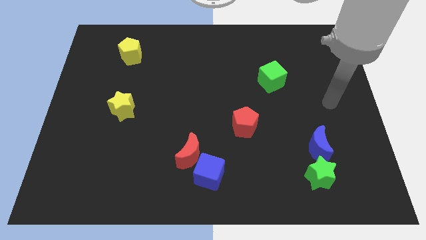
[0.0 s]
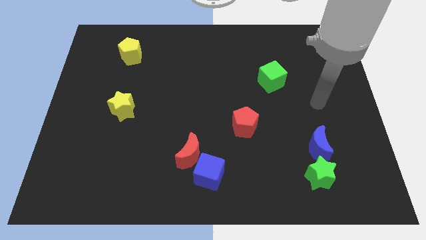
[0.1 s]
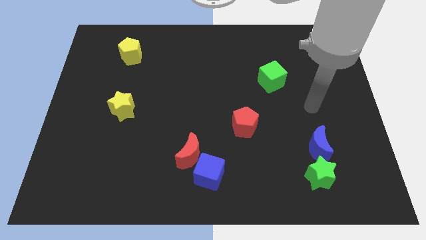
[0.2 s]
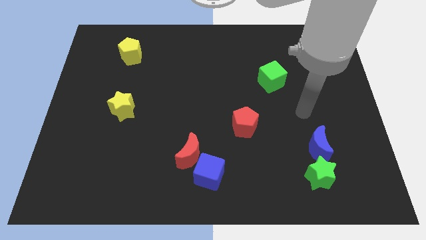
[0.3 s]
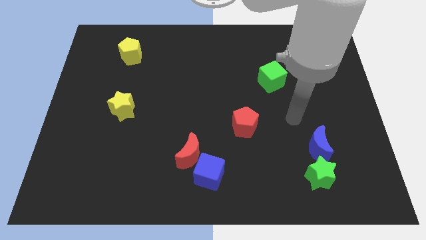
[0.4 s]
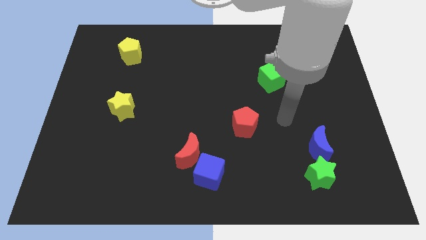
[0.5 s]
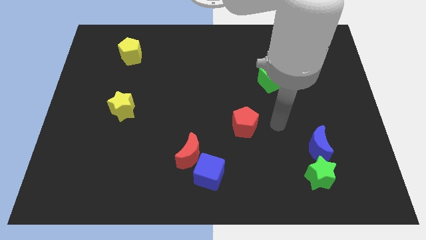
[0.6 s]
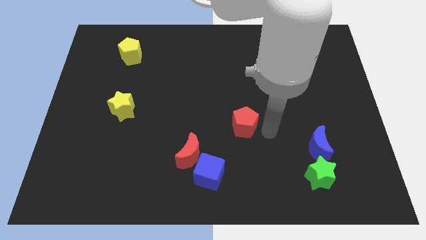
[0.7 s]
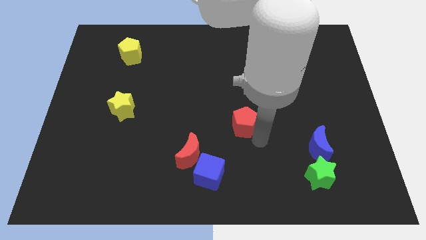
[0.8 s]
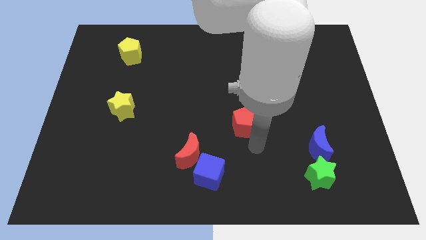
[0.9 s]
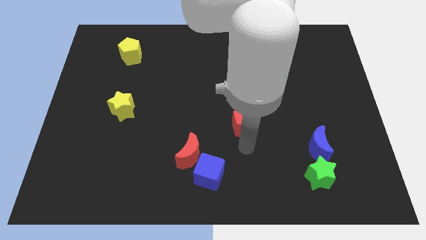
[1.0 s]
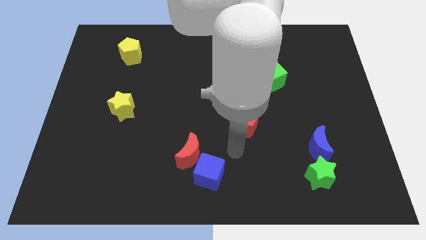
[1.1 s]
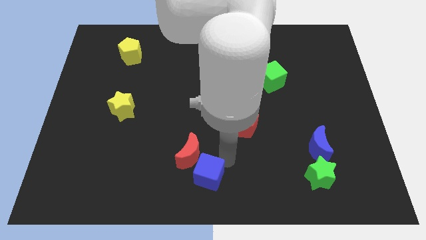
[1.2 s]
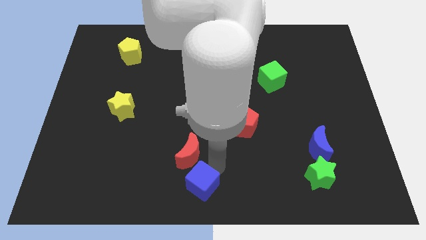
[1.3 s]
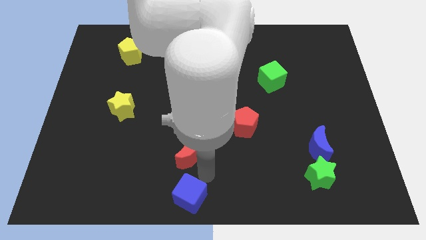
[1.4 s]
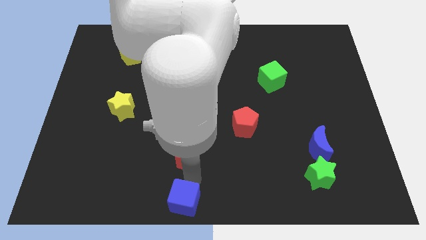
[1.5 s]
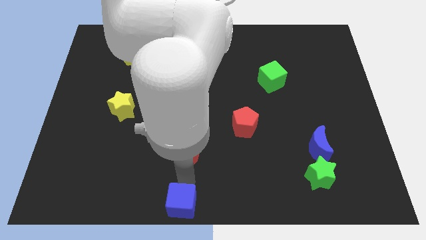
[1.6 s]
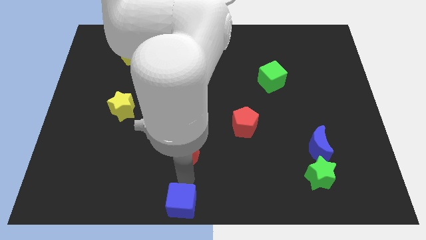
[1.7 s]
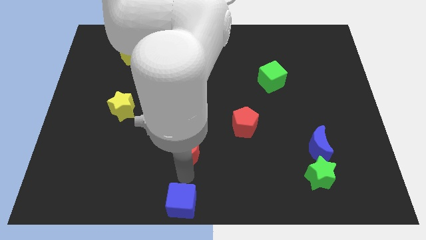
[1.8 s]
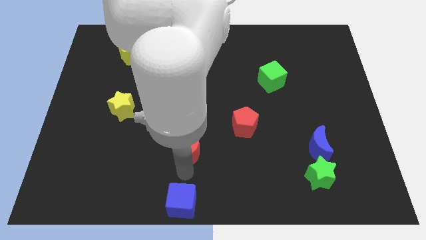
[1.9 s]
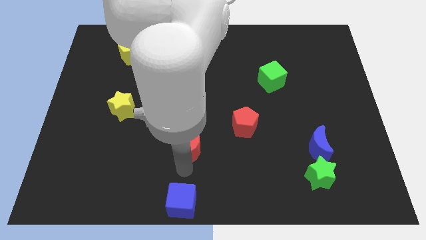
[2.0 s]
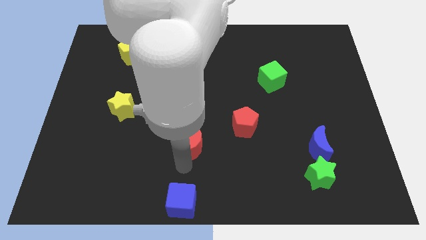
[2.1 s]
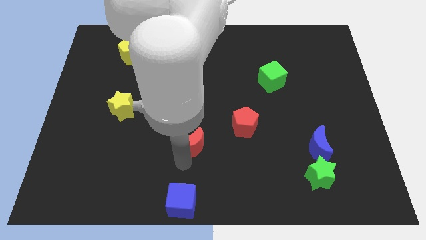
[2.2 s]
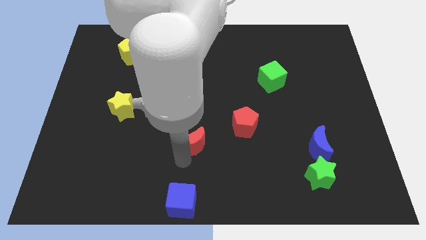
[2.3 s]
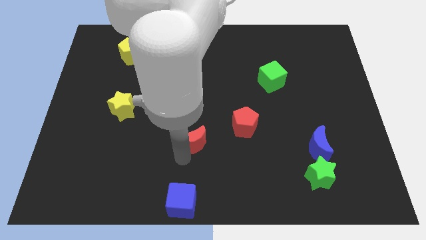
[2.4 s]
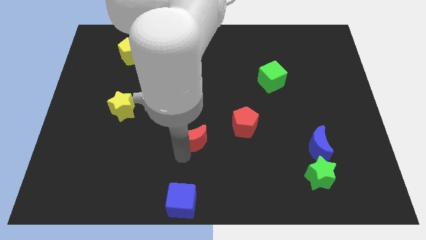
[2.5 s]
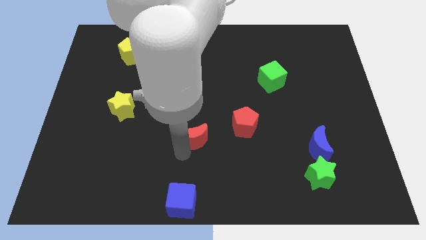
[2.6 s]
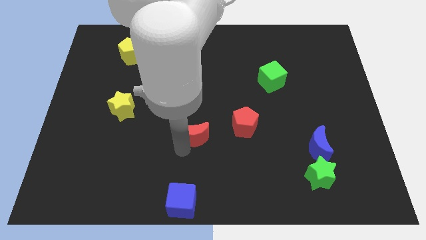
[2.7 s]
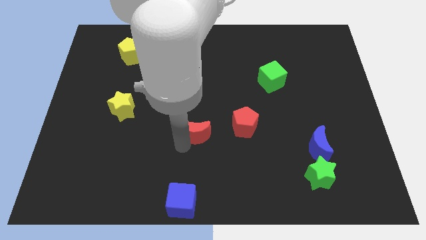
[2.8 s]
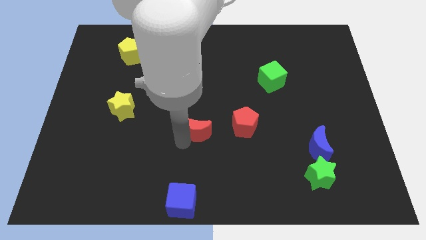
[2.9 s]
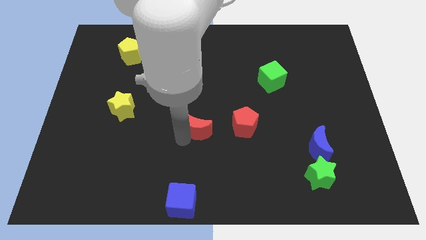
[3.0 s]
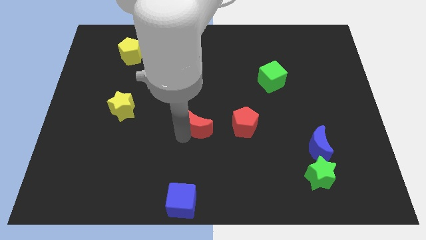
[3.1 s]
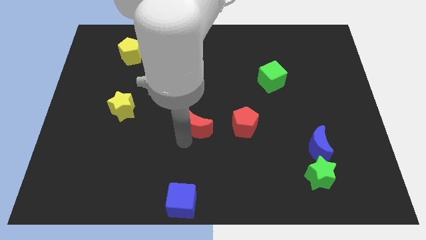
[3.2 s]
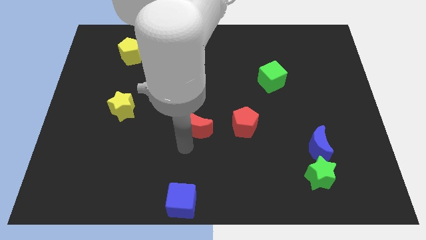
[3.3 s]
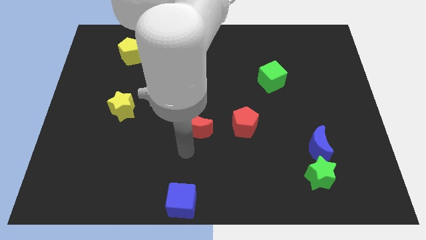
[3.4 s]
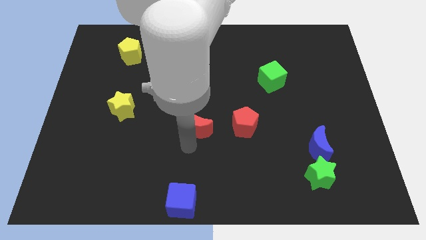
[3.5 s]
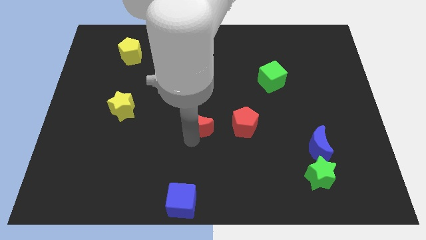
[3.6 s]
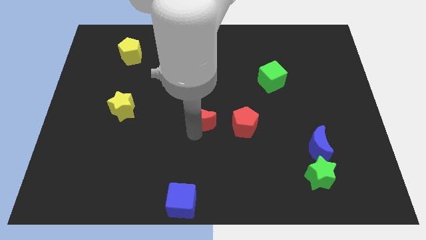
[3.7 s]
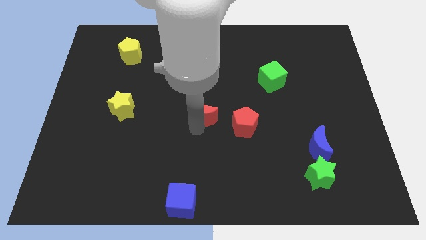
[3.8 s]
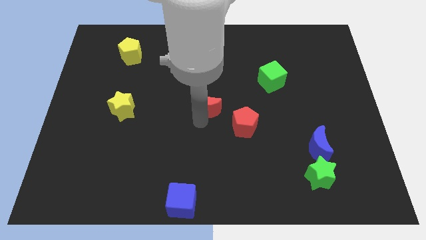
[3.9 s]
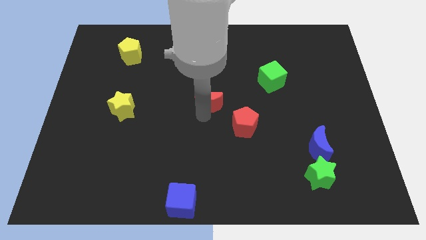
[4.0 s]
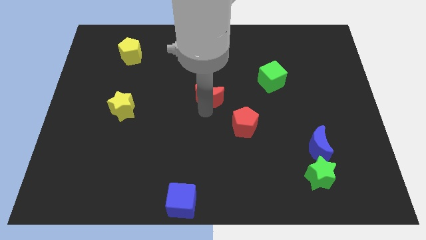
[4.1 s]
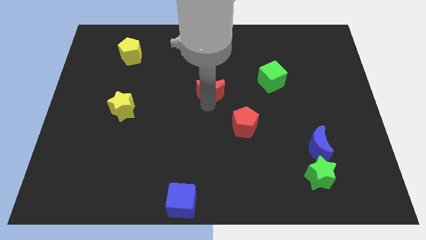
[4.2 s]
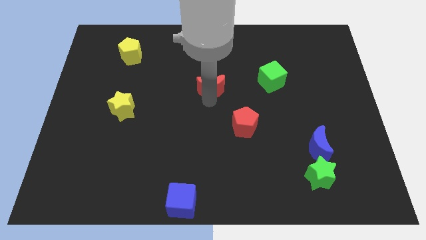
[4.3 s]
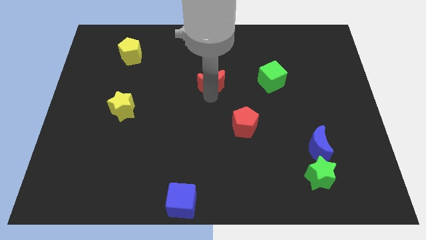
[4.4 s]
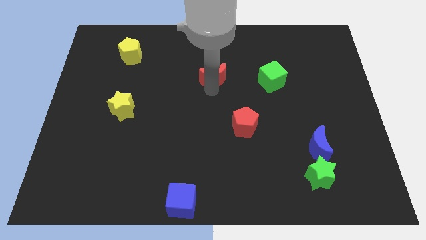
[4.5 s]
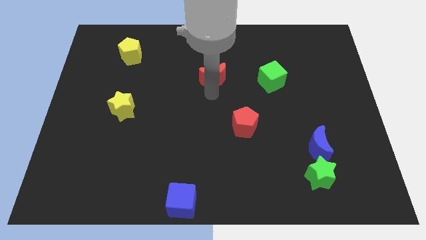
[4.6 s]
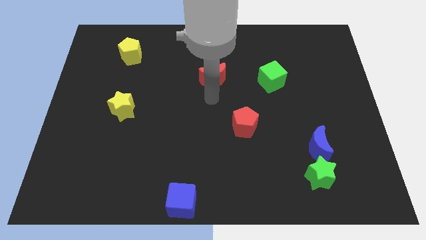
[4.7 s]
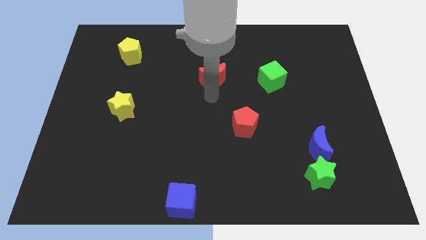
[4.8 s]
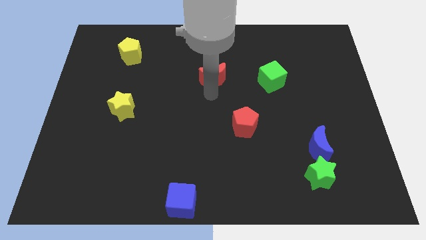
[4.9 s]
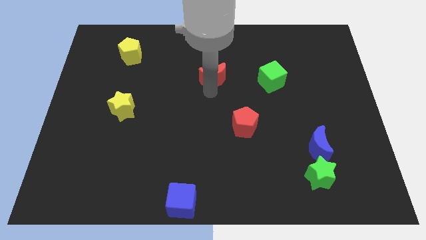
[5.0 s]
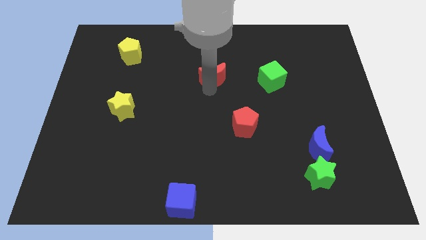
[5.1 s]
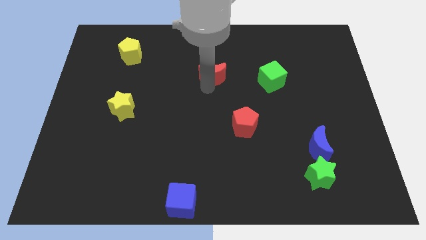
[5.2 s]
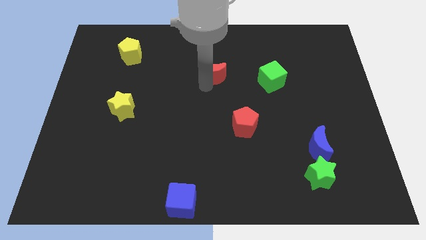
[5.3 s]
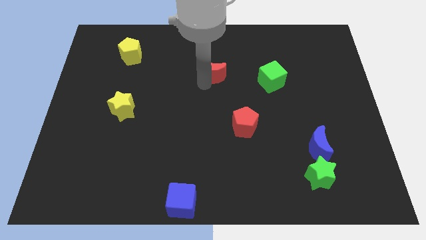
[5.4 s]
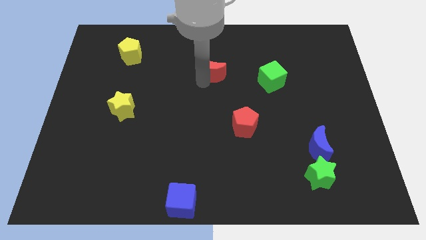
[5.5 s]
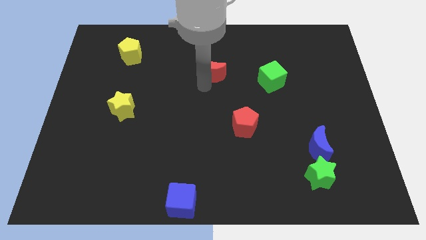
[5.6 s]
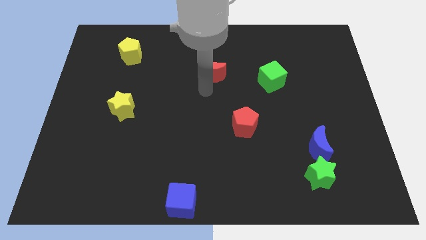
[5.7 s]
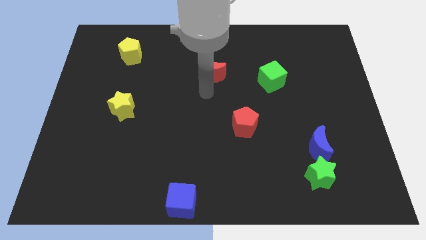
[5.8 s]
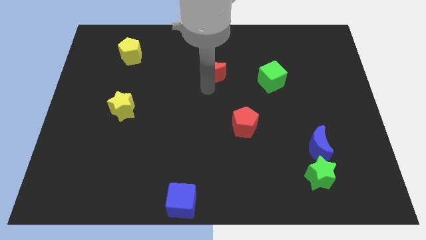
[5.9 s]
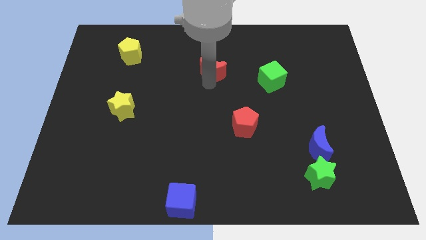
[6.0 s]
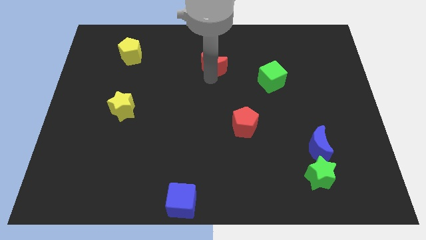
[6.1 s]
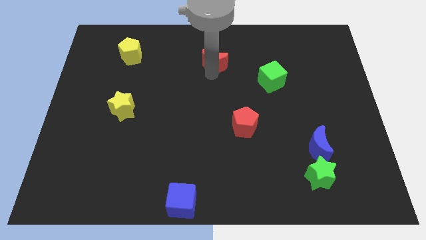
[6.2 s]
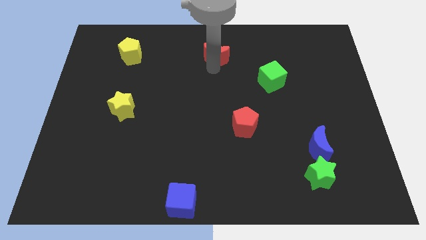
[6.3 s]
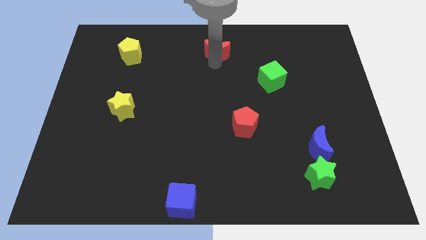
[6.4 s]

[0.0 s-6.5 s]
push the red moon to the towards your base
